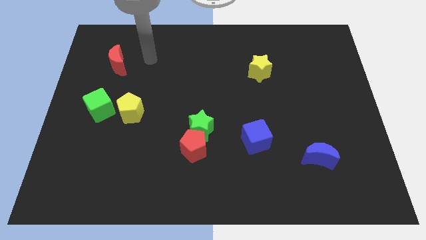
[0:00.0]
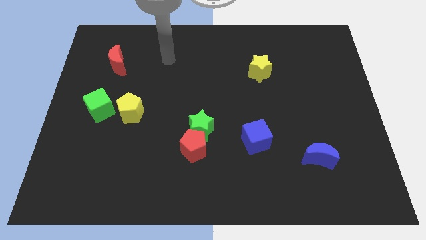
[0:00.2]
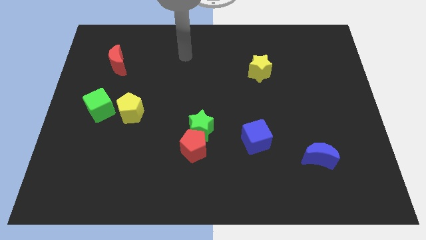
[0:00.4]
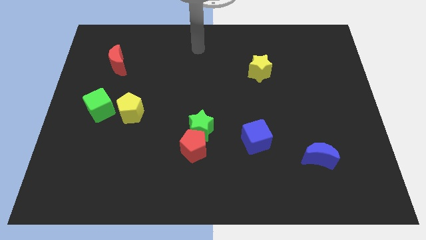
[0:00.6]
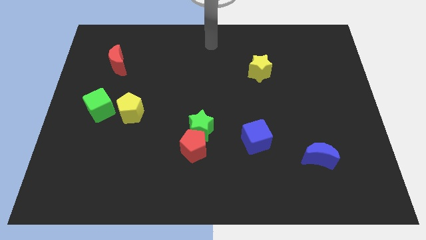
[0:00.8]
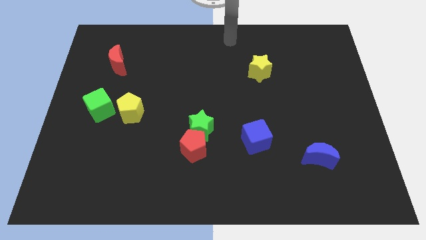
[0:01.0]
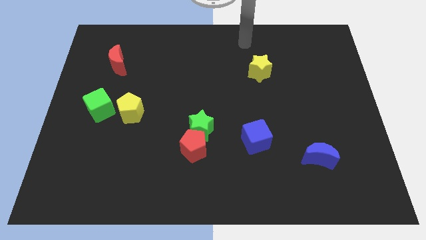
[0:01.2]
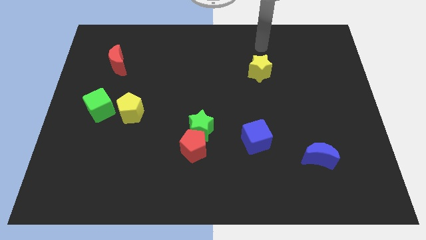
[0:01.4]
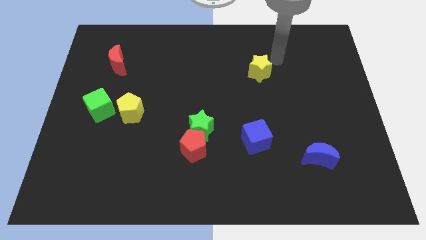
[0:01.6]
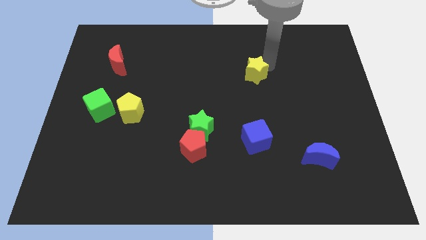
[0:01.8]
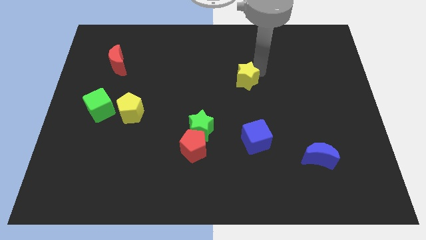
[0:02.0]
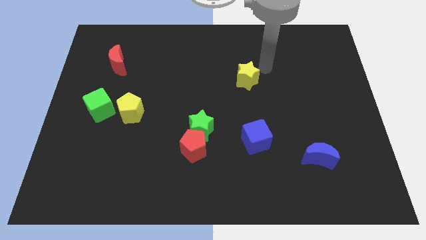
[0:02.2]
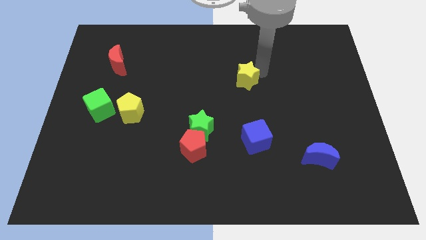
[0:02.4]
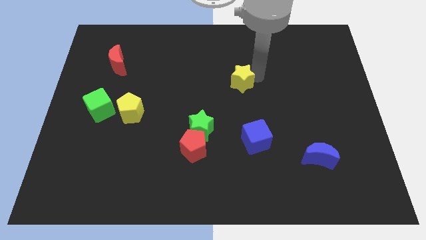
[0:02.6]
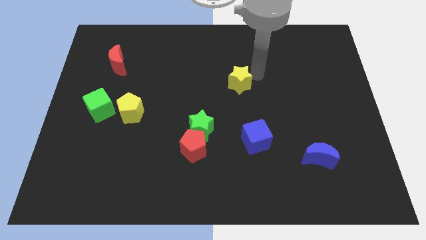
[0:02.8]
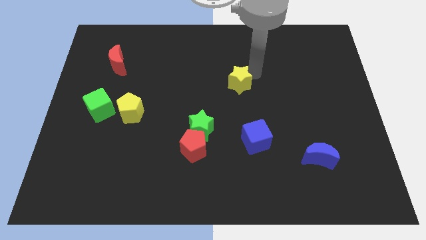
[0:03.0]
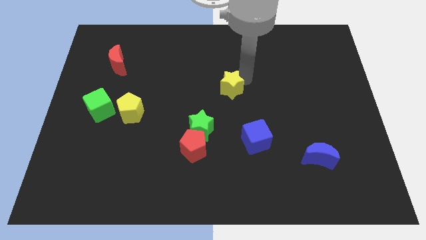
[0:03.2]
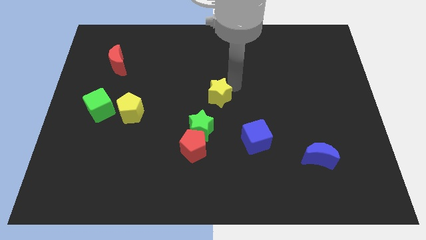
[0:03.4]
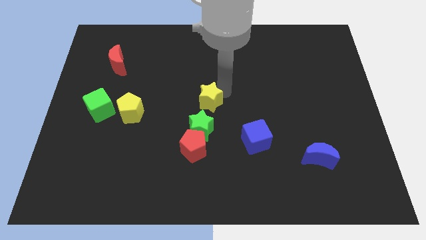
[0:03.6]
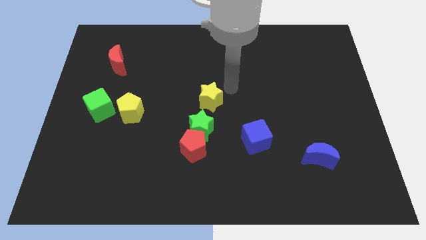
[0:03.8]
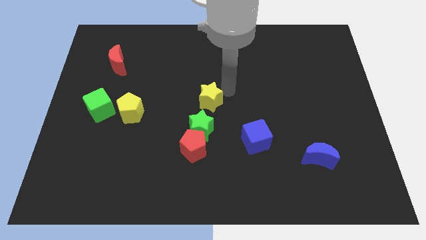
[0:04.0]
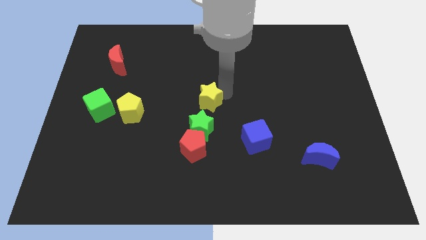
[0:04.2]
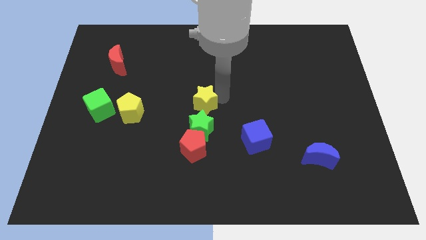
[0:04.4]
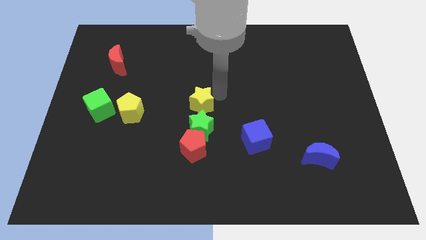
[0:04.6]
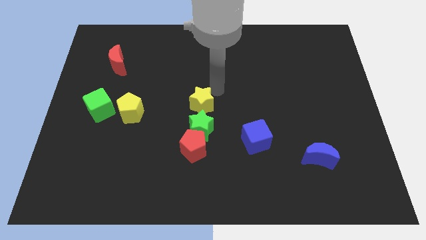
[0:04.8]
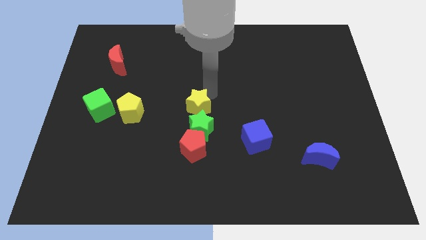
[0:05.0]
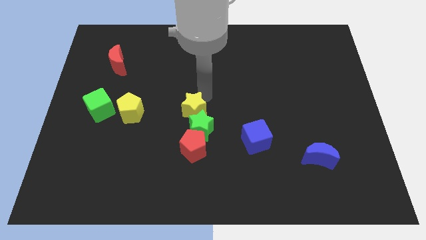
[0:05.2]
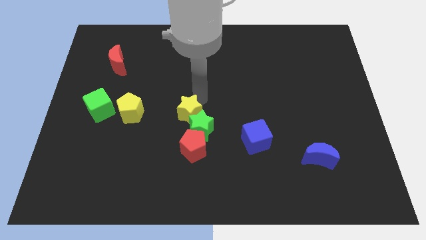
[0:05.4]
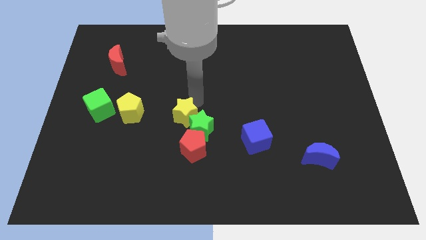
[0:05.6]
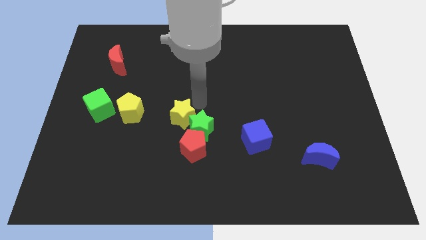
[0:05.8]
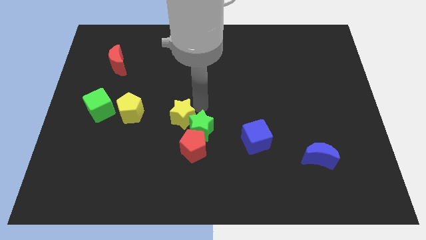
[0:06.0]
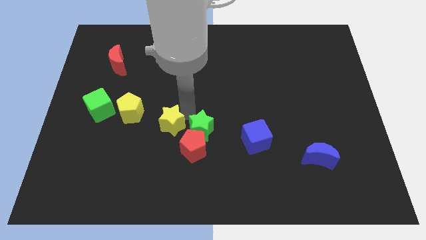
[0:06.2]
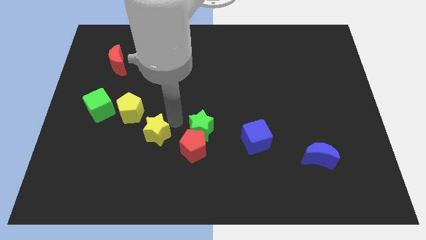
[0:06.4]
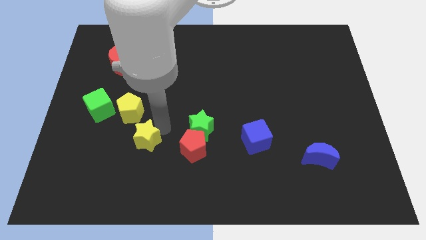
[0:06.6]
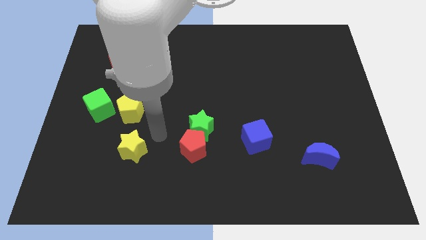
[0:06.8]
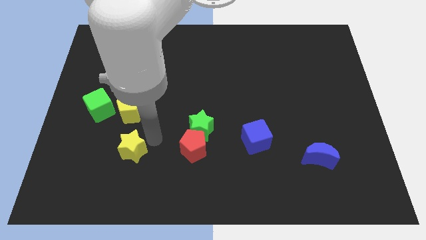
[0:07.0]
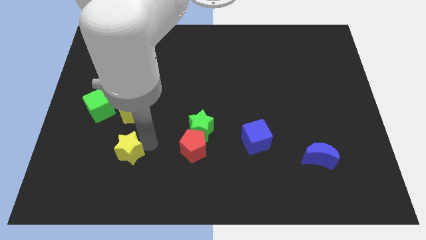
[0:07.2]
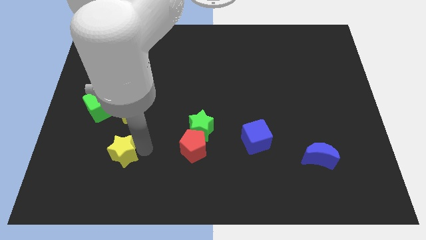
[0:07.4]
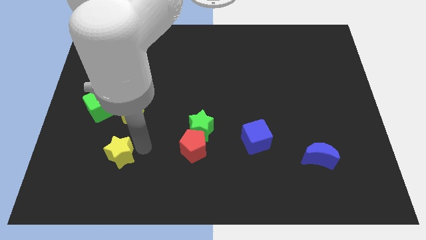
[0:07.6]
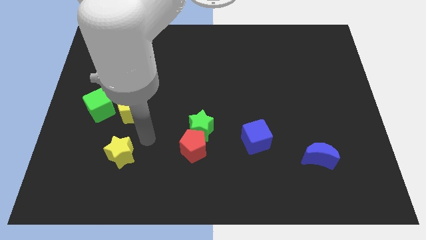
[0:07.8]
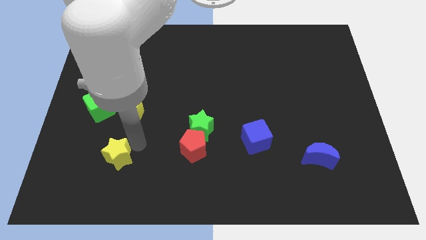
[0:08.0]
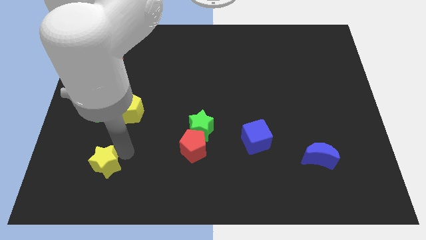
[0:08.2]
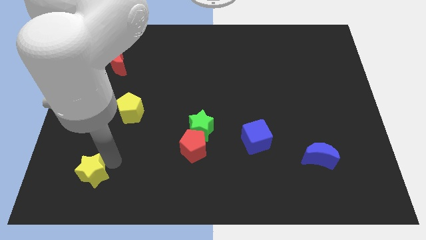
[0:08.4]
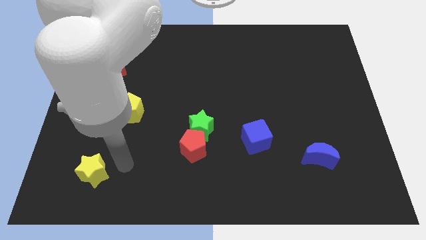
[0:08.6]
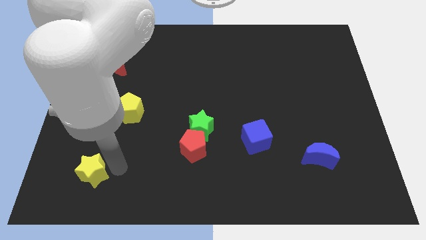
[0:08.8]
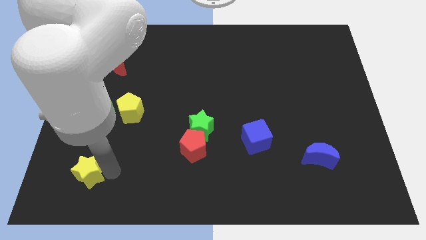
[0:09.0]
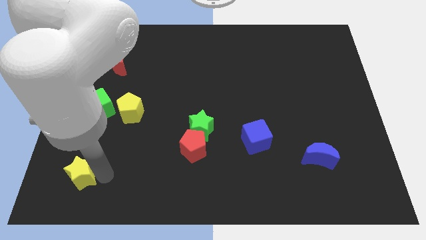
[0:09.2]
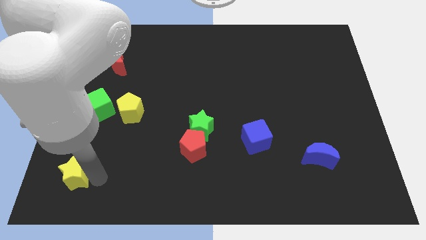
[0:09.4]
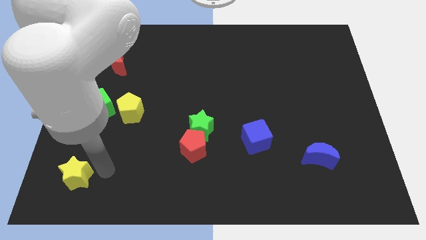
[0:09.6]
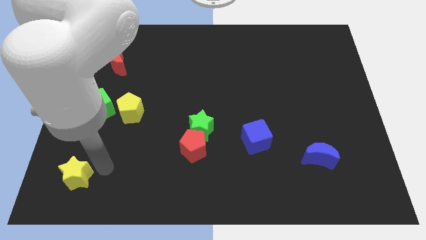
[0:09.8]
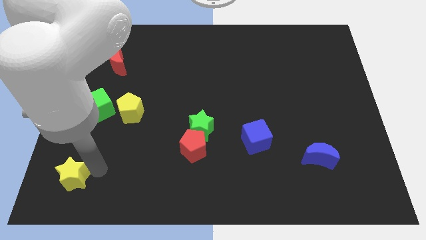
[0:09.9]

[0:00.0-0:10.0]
put the yellow star to the lower left corner
